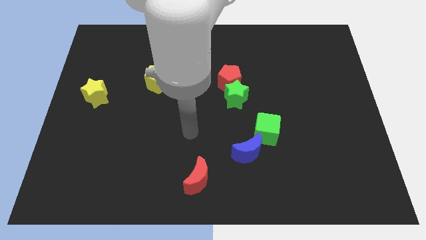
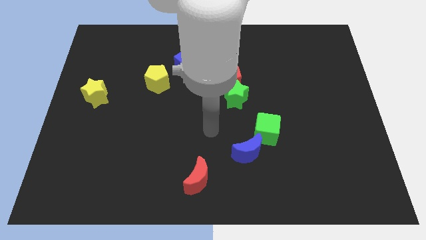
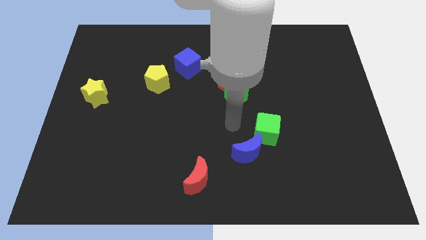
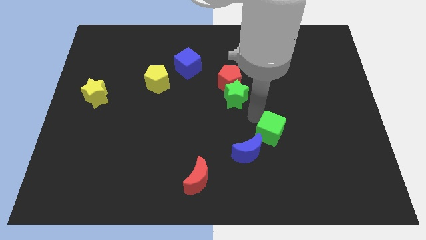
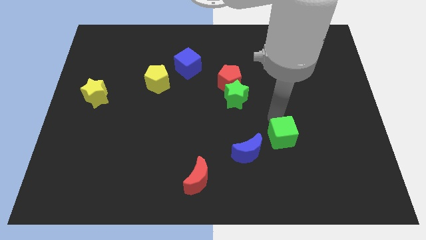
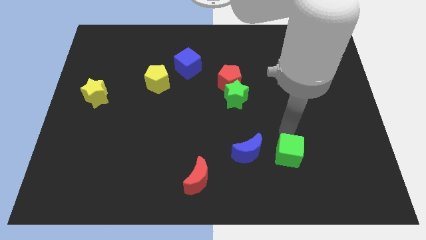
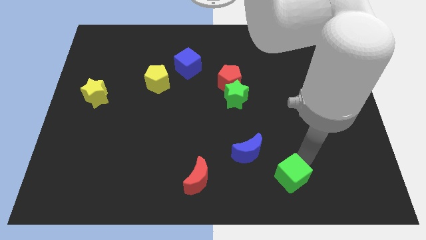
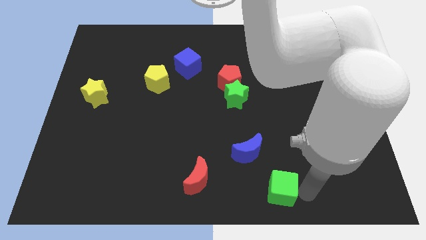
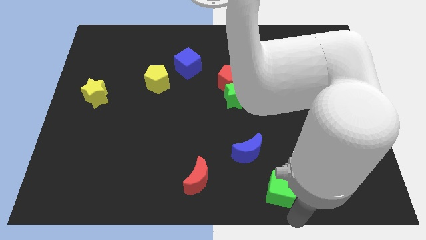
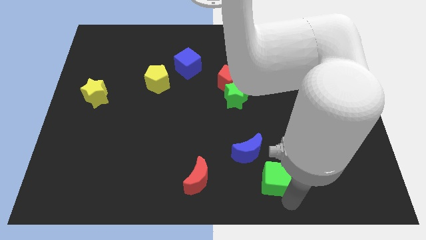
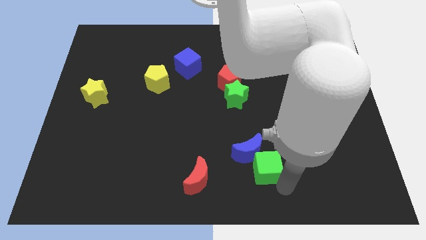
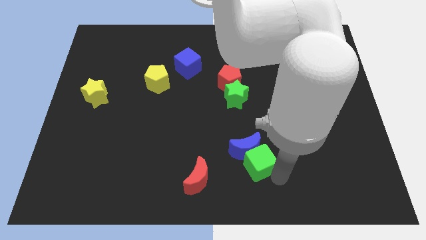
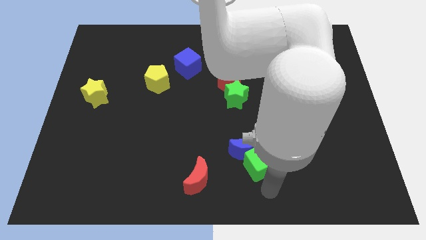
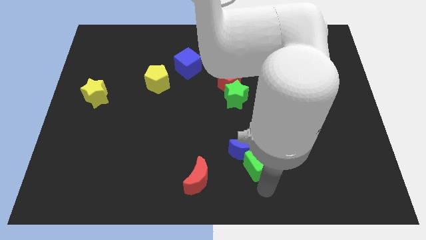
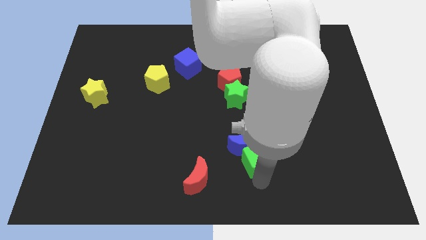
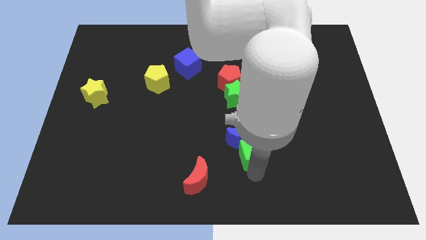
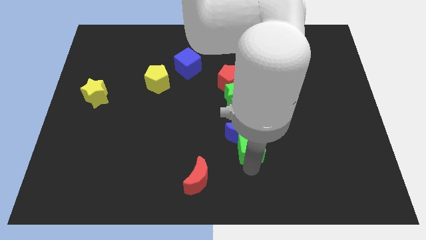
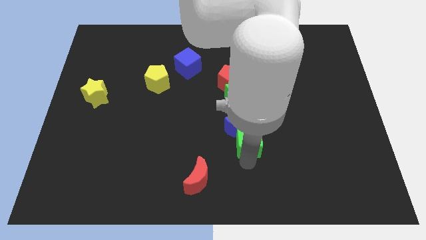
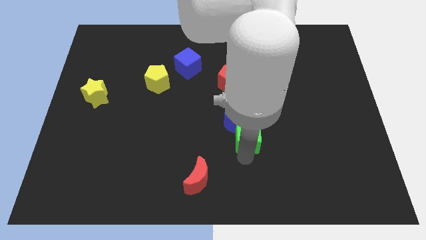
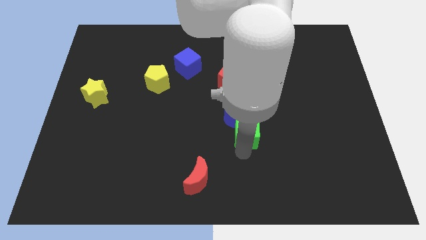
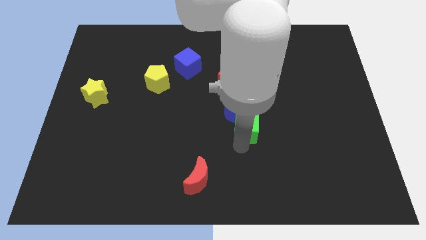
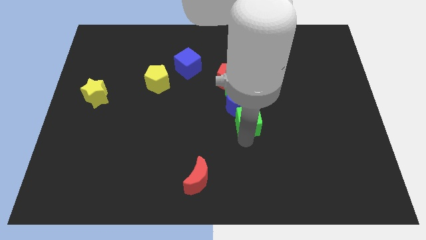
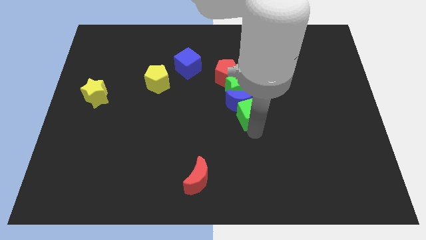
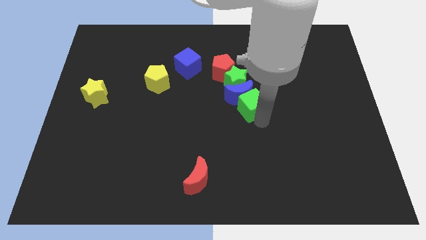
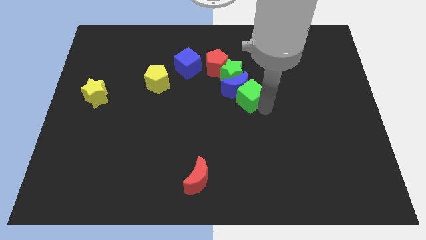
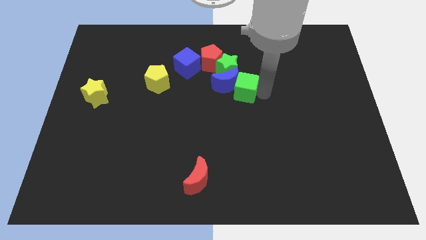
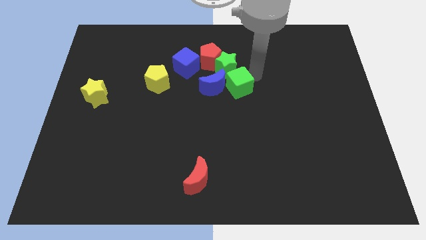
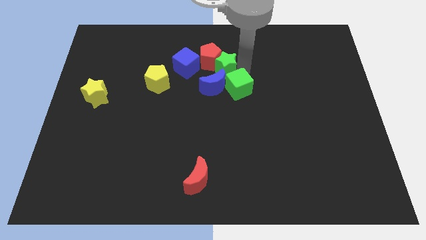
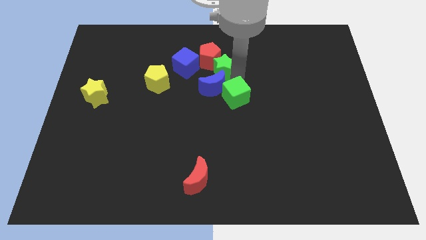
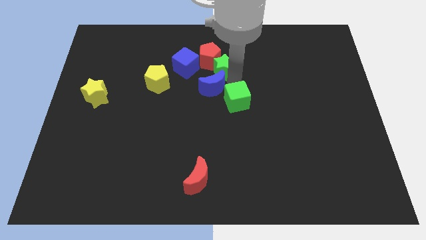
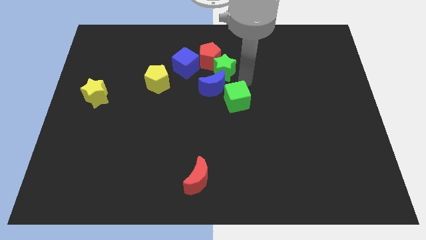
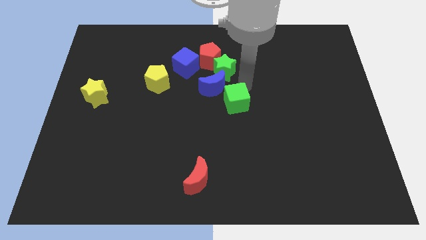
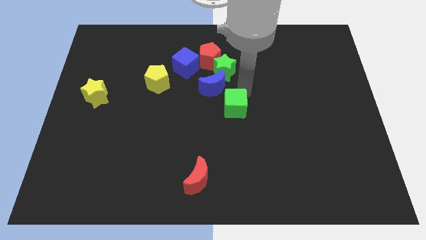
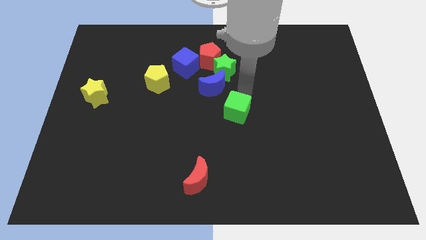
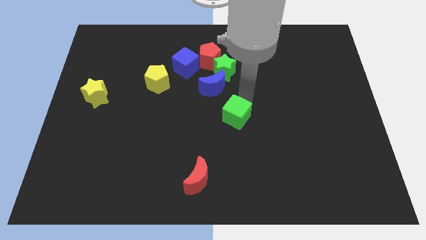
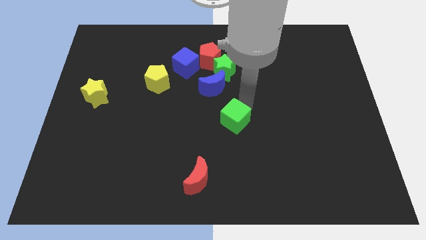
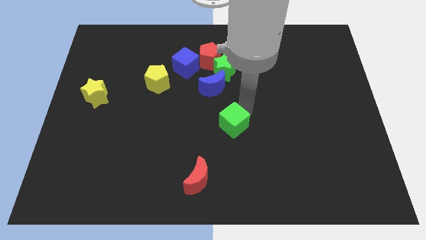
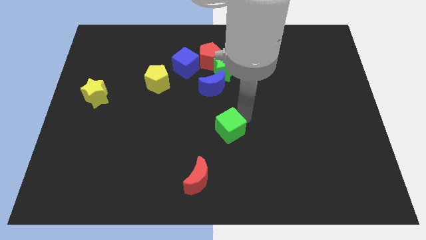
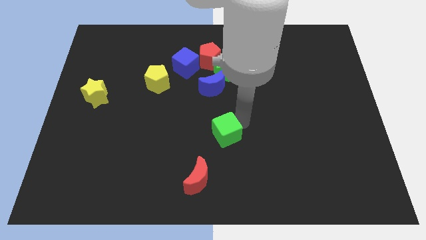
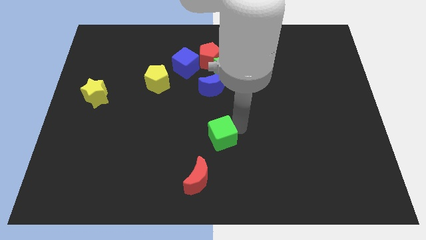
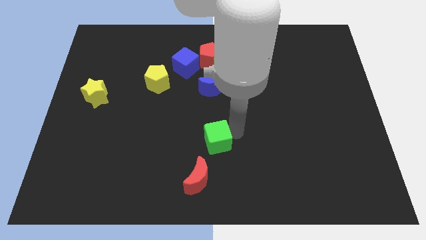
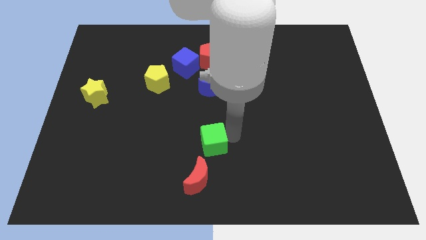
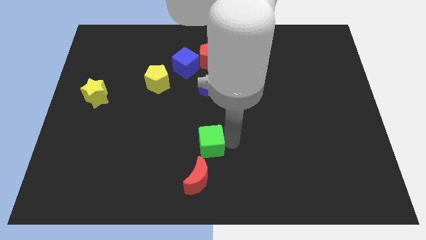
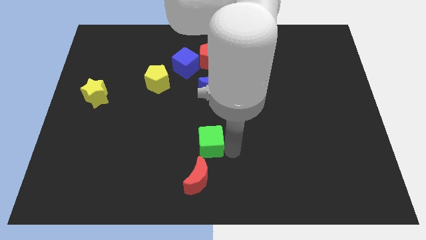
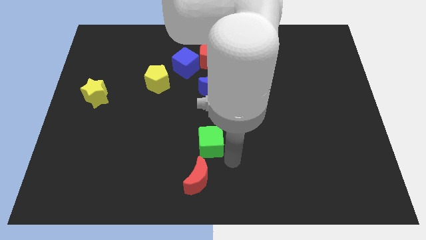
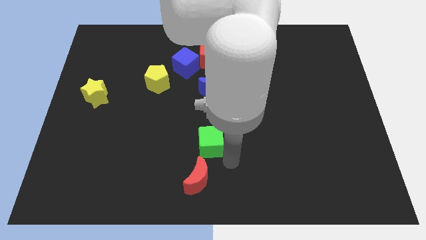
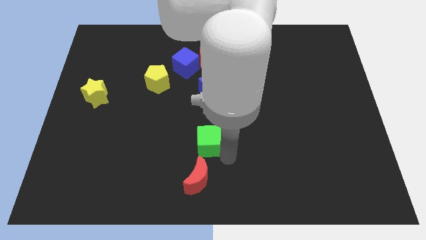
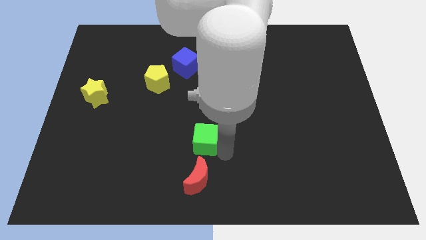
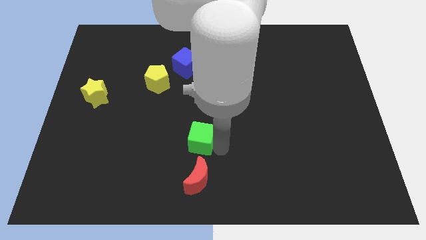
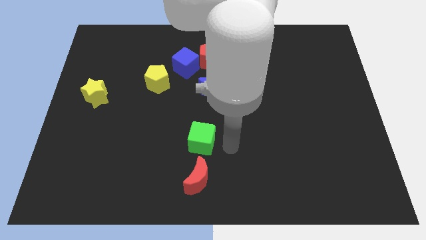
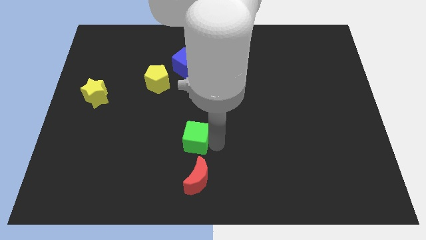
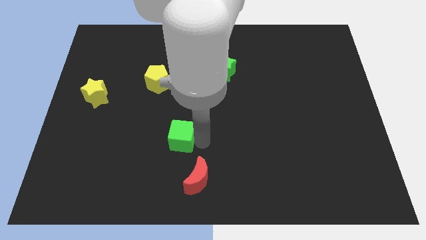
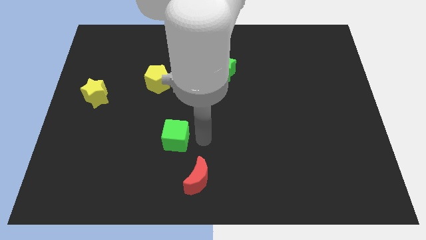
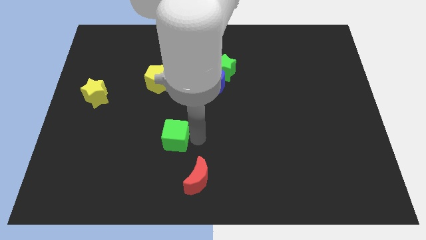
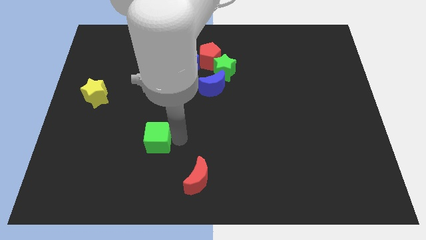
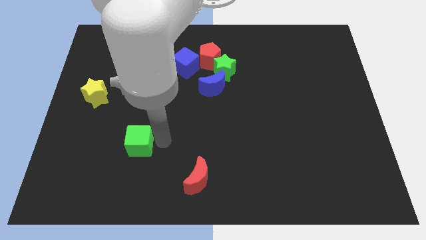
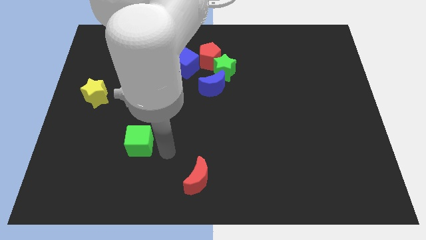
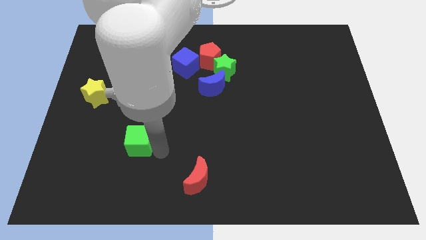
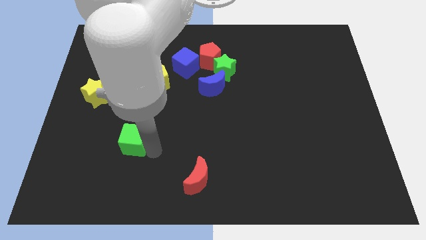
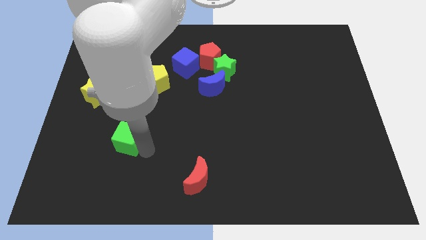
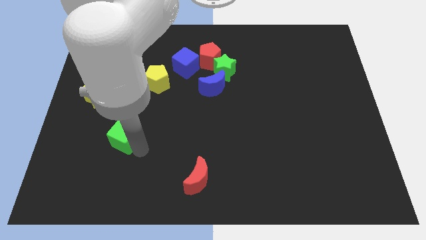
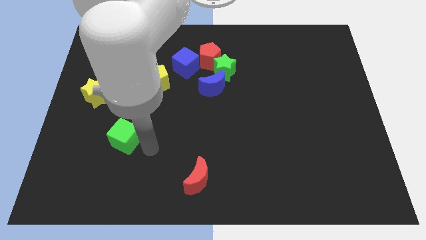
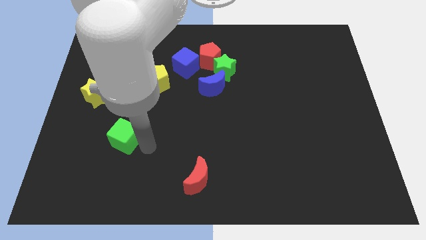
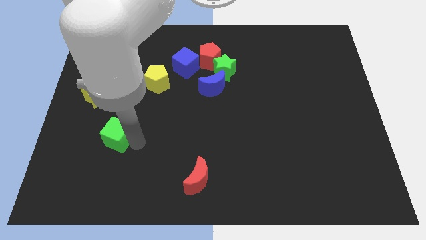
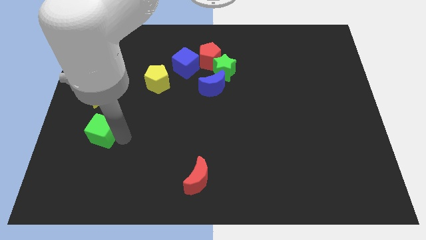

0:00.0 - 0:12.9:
put the green cube to the bottom side of the yellow star

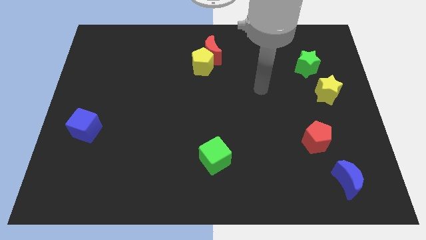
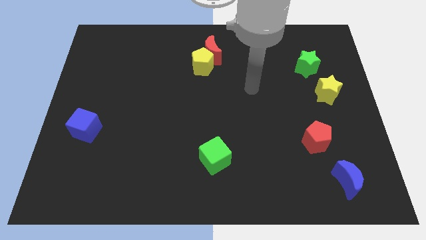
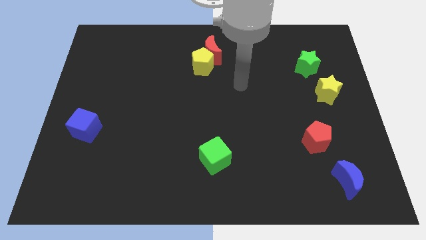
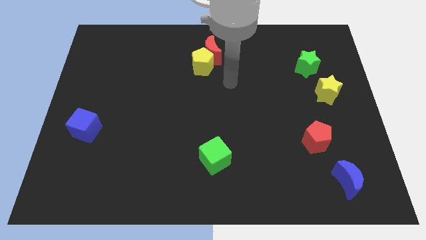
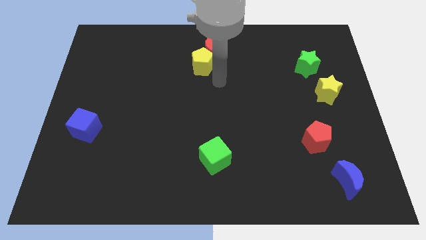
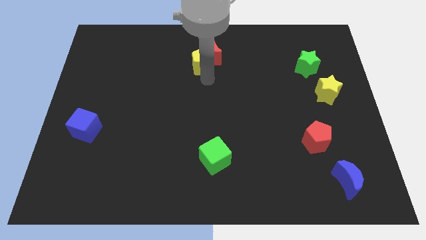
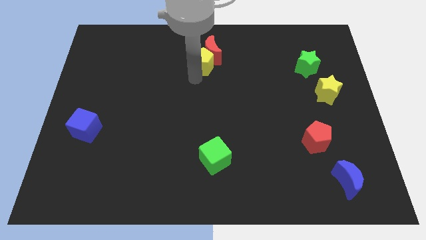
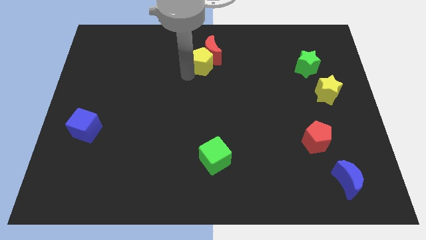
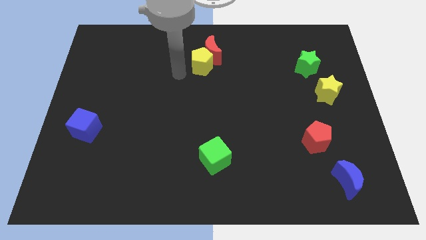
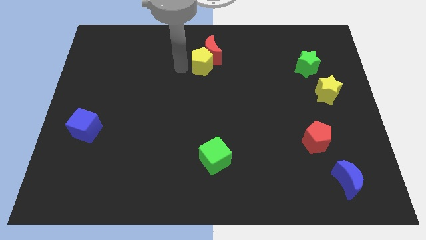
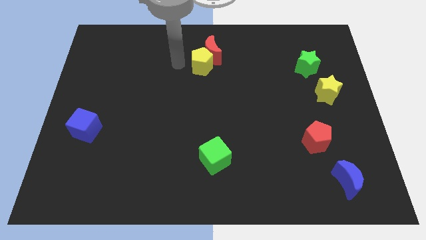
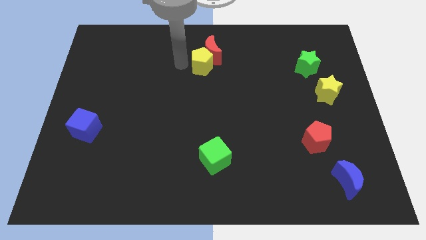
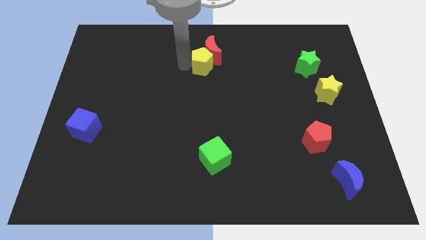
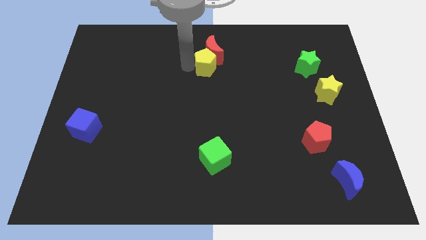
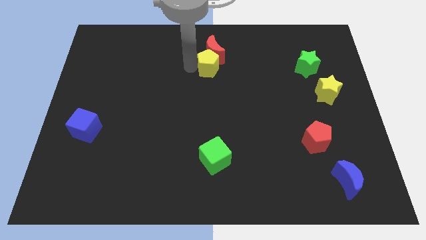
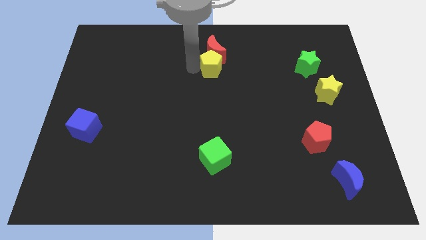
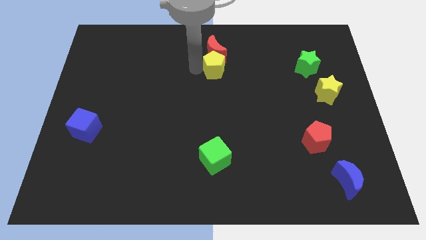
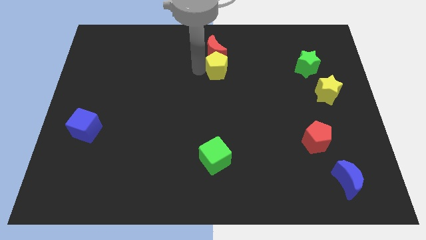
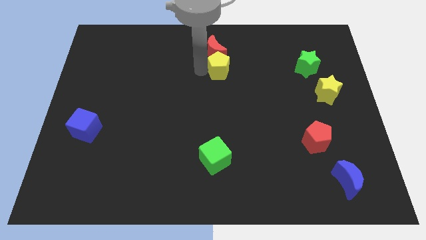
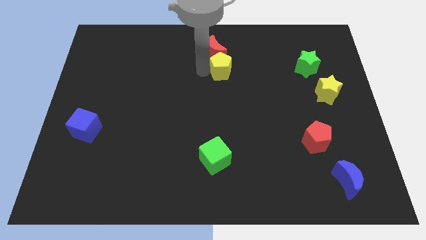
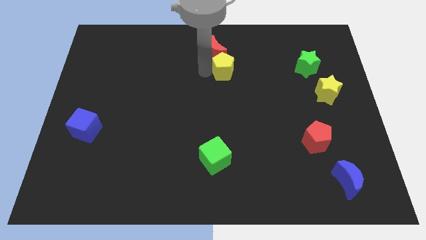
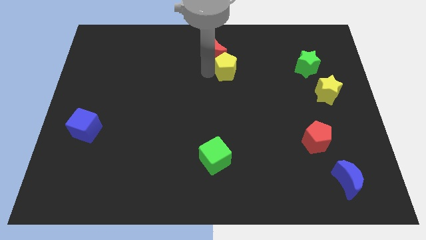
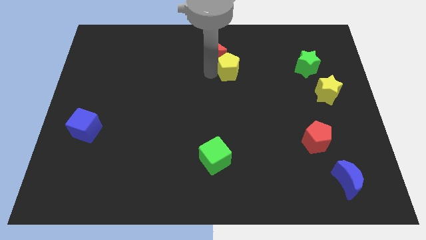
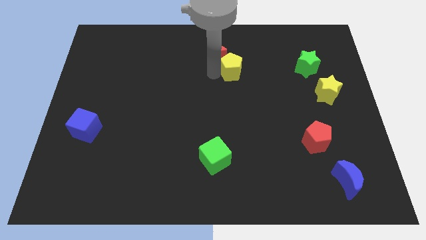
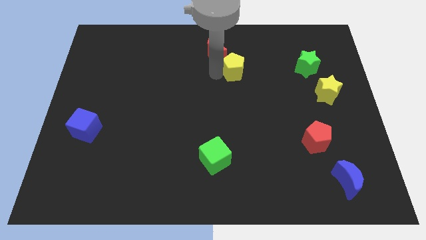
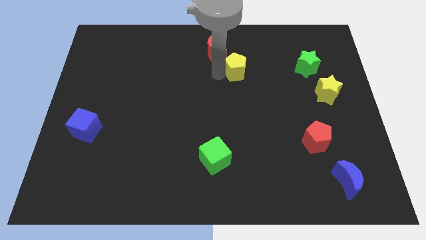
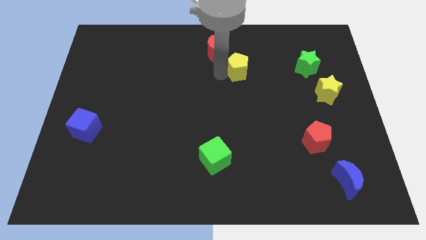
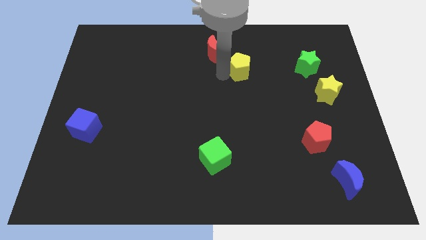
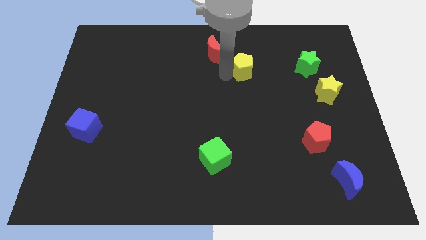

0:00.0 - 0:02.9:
put the yellow pentagon to the left side of the green star
